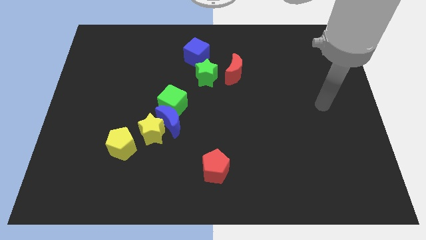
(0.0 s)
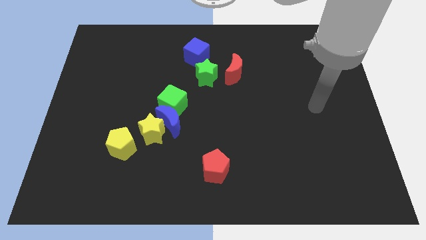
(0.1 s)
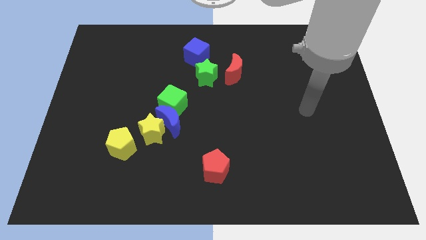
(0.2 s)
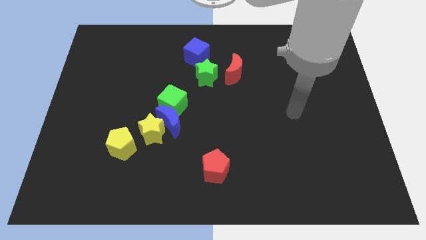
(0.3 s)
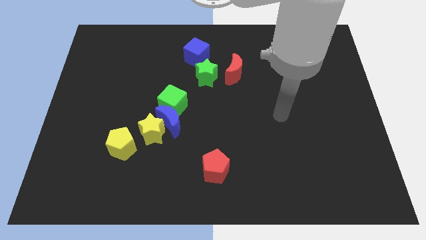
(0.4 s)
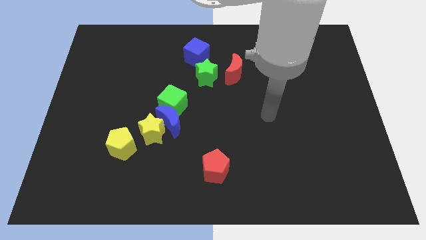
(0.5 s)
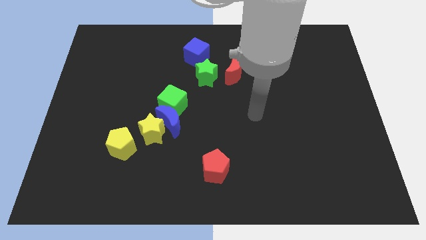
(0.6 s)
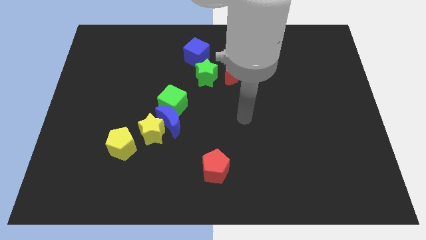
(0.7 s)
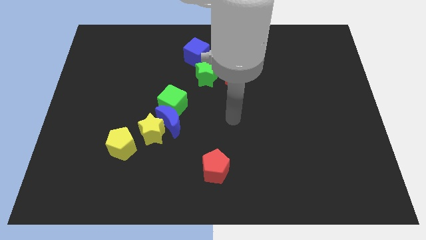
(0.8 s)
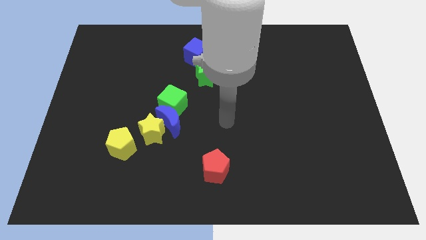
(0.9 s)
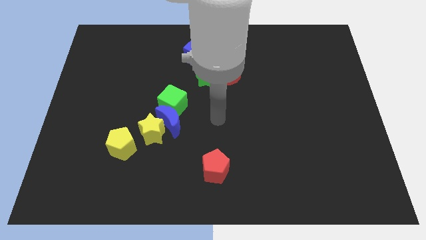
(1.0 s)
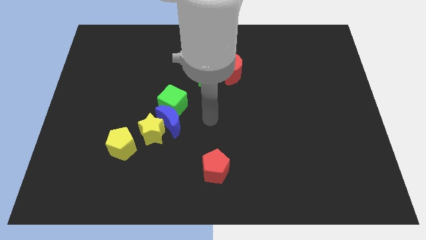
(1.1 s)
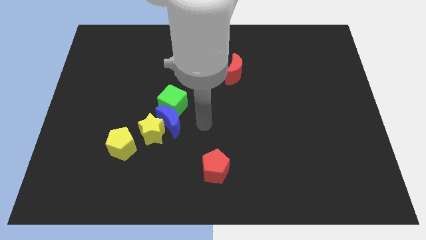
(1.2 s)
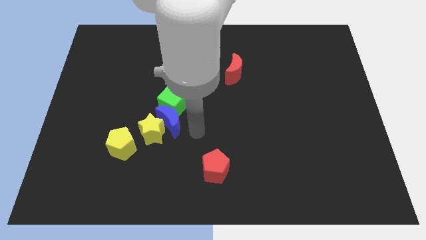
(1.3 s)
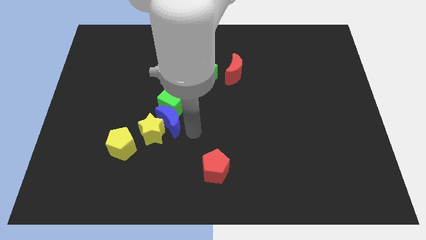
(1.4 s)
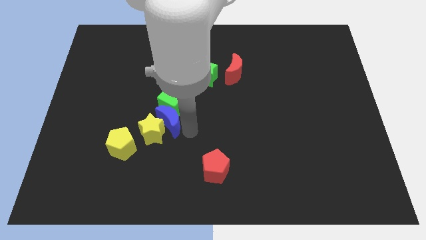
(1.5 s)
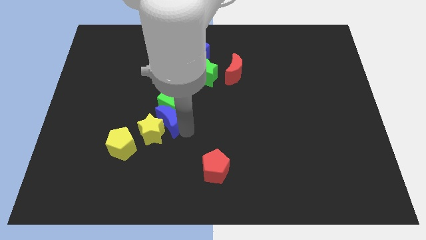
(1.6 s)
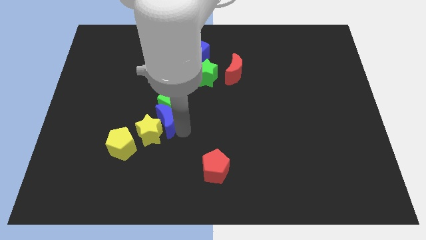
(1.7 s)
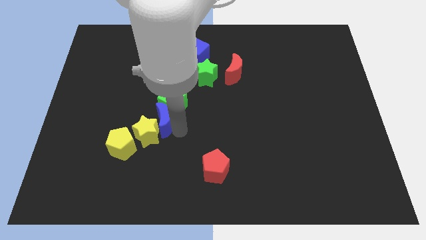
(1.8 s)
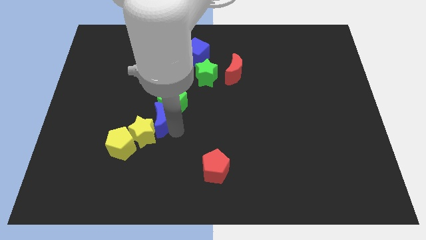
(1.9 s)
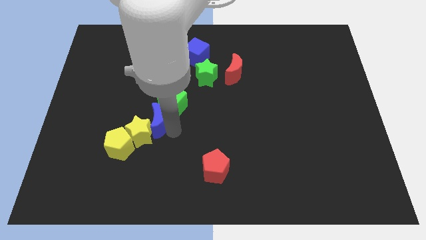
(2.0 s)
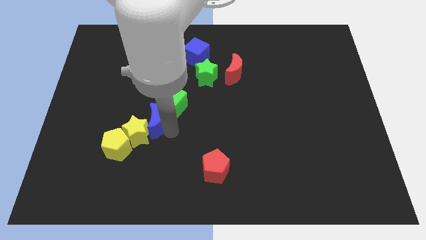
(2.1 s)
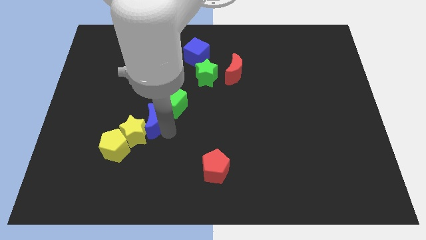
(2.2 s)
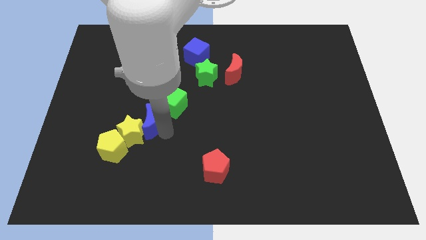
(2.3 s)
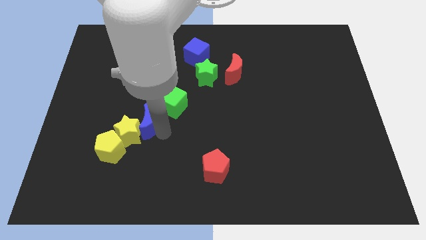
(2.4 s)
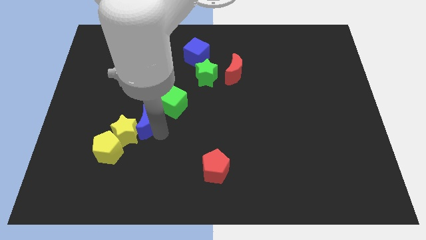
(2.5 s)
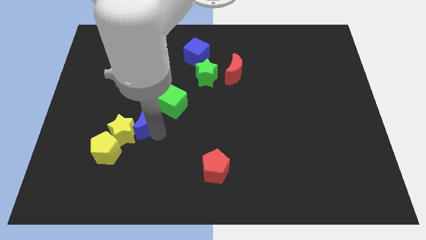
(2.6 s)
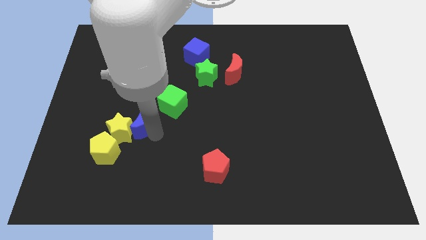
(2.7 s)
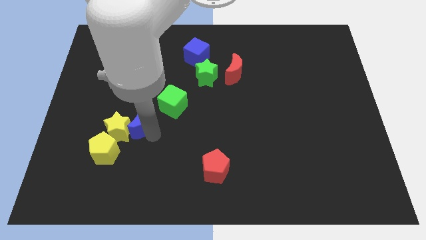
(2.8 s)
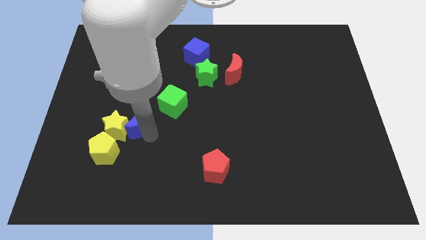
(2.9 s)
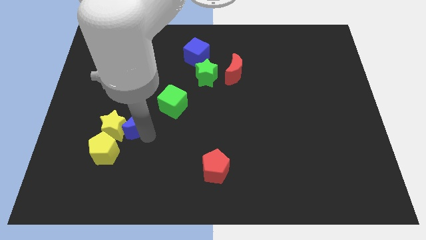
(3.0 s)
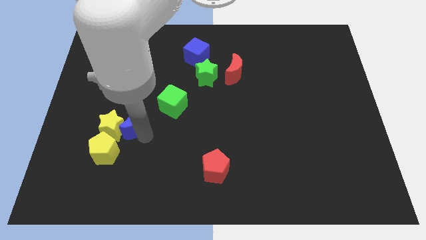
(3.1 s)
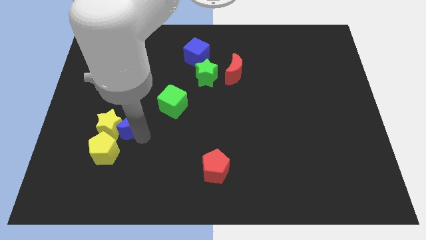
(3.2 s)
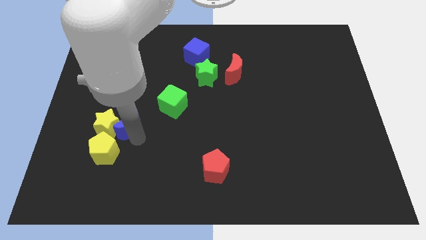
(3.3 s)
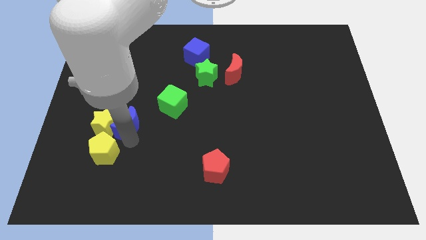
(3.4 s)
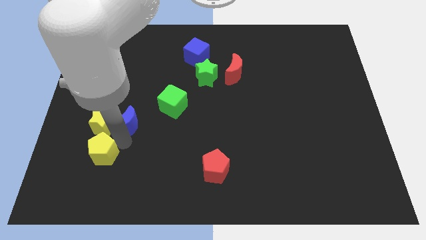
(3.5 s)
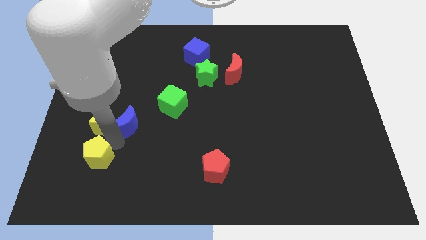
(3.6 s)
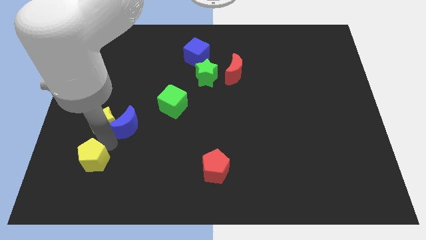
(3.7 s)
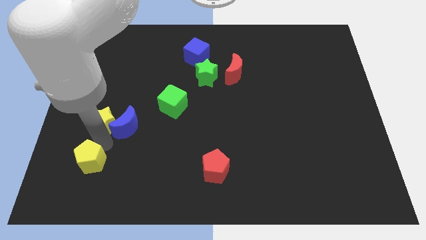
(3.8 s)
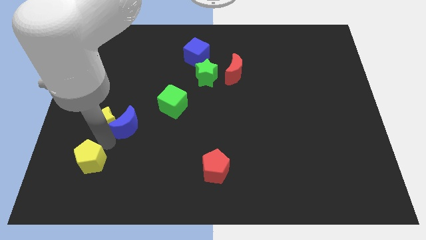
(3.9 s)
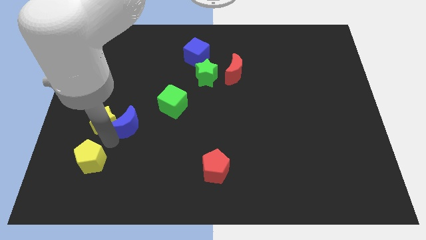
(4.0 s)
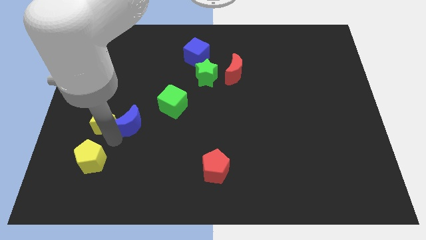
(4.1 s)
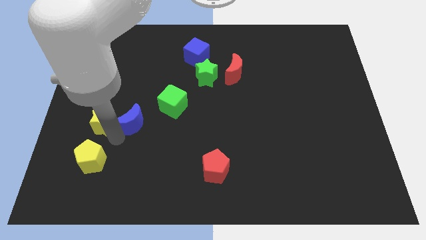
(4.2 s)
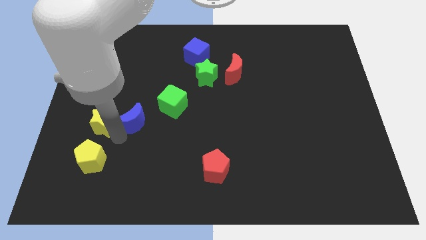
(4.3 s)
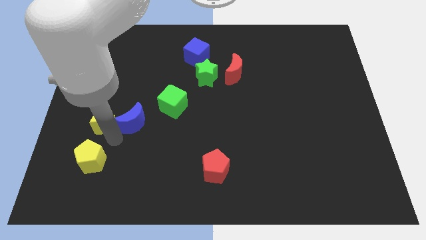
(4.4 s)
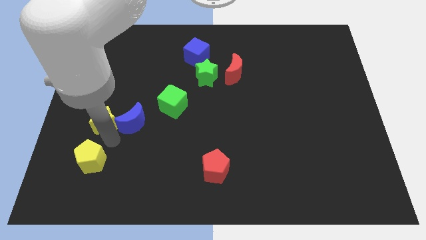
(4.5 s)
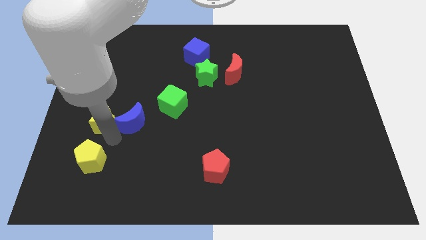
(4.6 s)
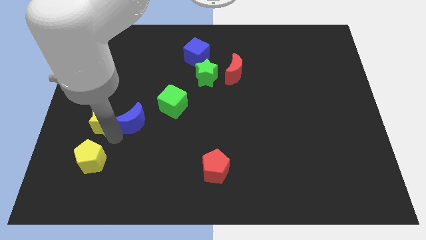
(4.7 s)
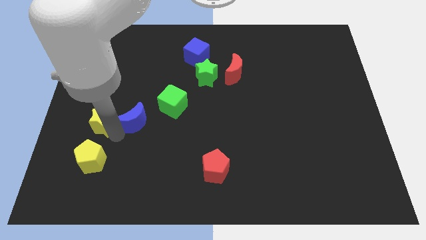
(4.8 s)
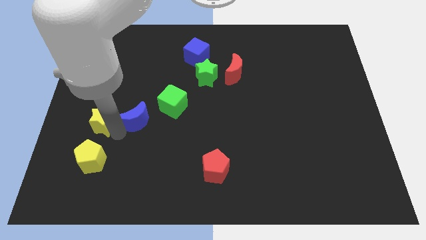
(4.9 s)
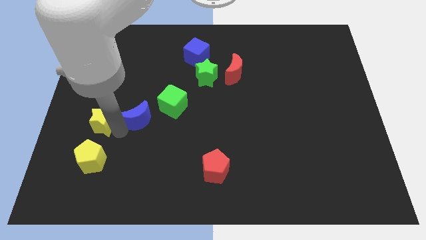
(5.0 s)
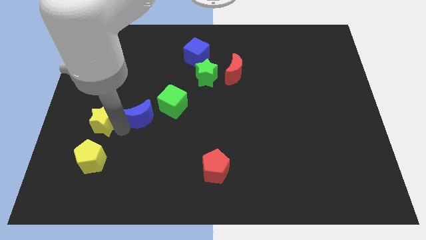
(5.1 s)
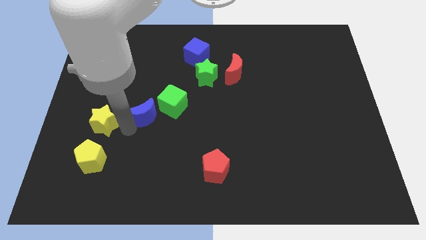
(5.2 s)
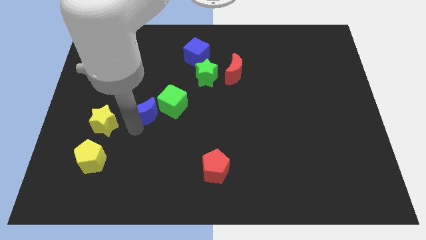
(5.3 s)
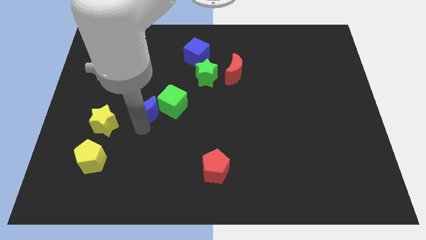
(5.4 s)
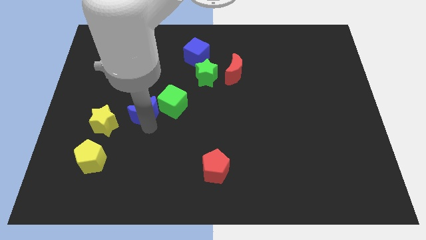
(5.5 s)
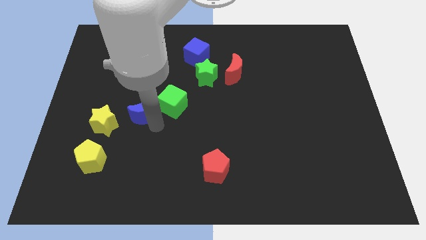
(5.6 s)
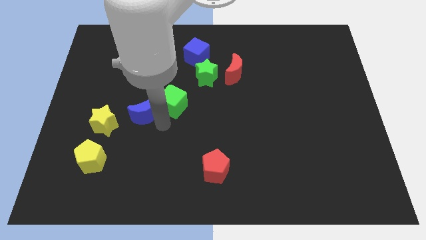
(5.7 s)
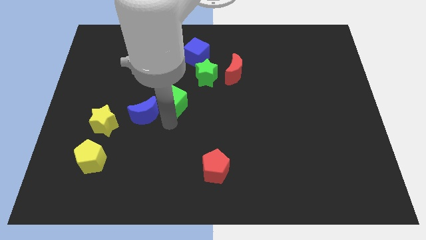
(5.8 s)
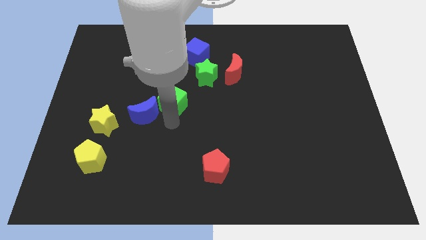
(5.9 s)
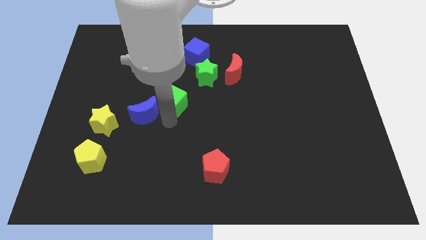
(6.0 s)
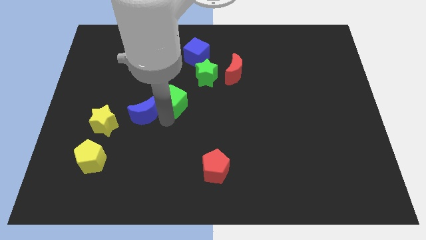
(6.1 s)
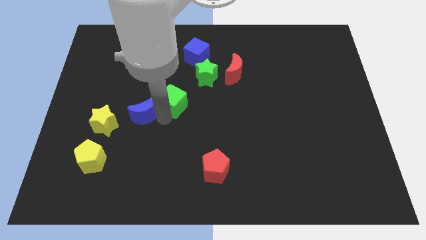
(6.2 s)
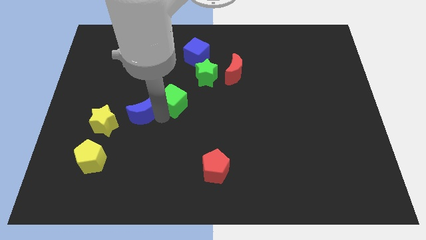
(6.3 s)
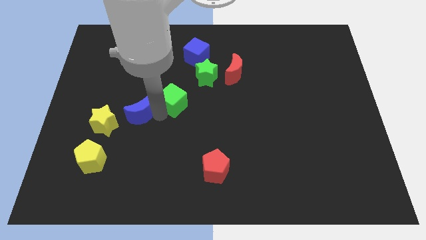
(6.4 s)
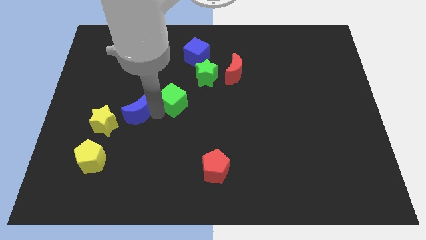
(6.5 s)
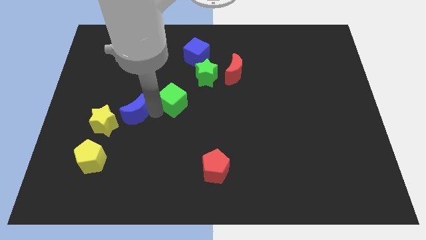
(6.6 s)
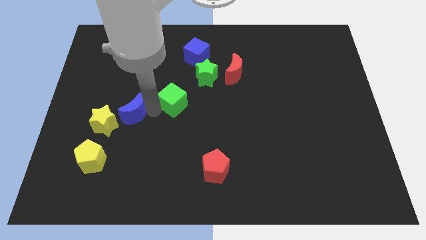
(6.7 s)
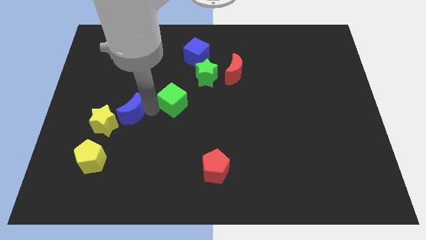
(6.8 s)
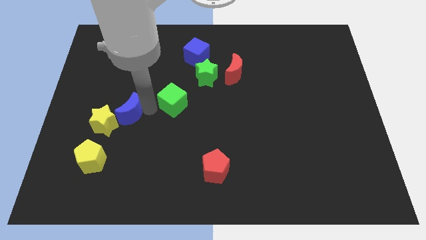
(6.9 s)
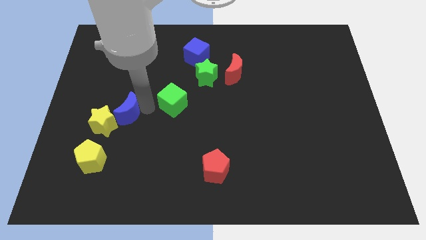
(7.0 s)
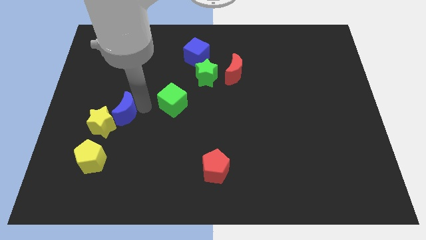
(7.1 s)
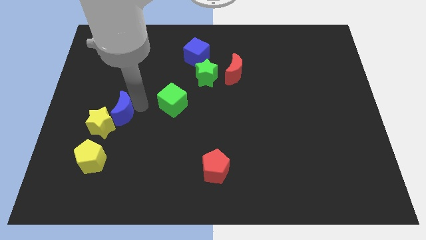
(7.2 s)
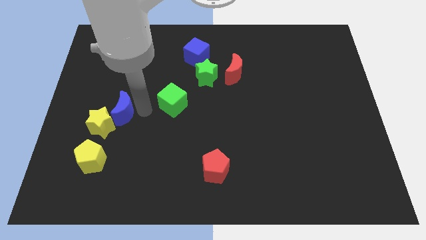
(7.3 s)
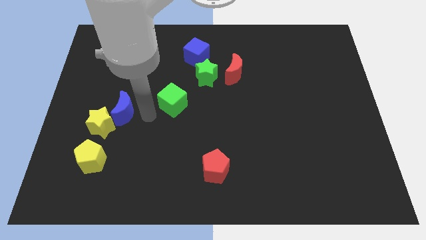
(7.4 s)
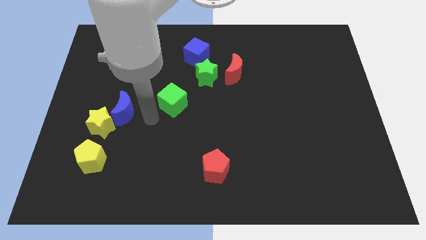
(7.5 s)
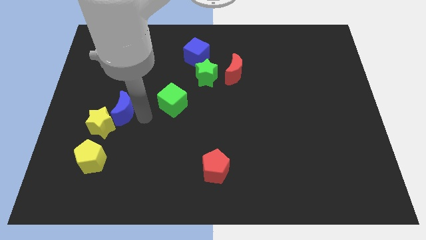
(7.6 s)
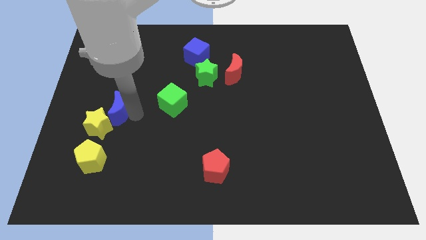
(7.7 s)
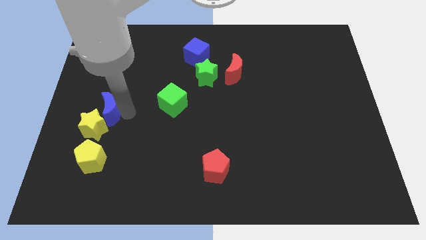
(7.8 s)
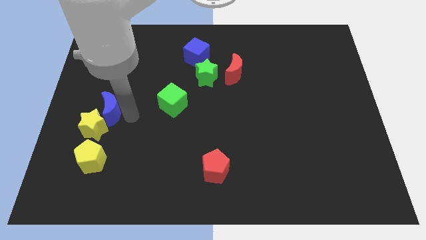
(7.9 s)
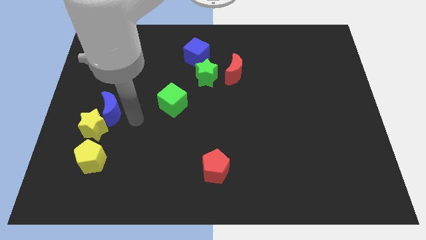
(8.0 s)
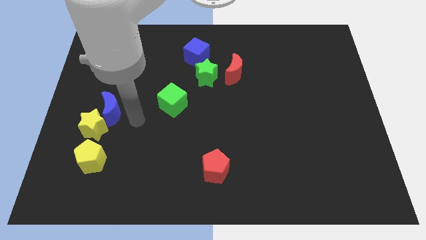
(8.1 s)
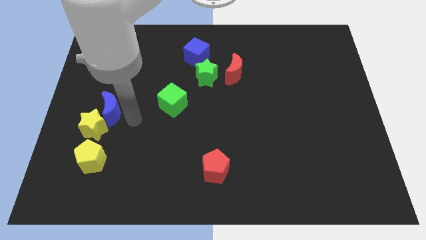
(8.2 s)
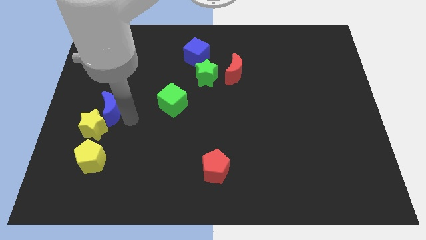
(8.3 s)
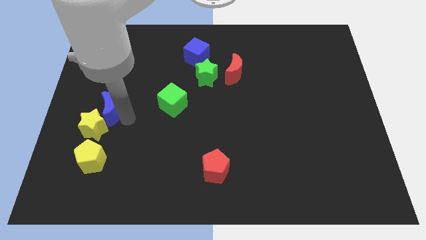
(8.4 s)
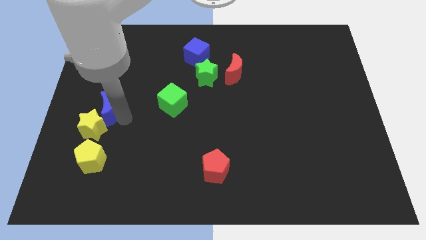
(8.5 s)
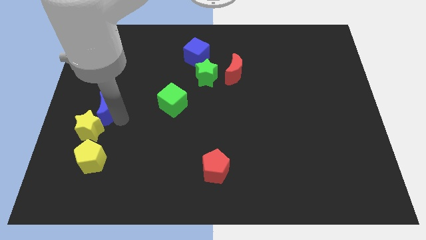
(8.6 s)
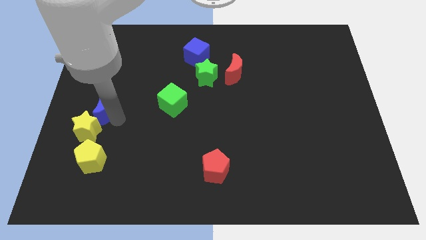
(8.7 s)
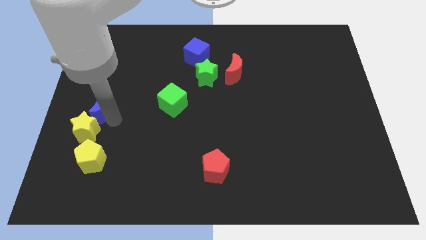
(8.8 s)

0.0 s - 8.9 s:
slide the blue moon to the left side
